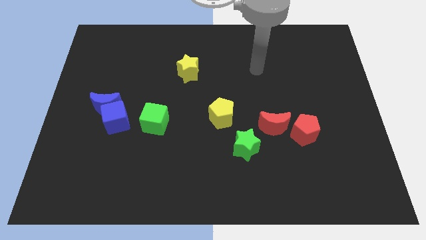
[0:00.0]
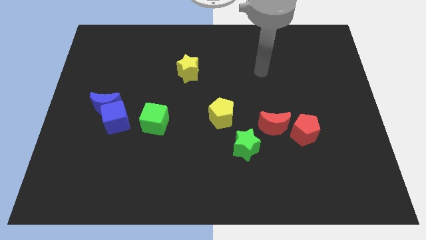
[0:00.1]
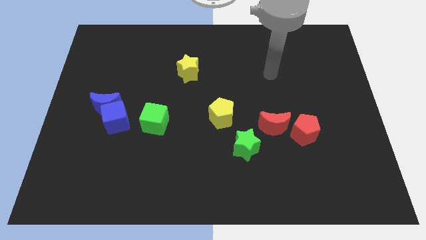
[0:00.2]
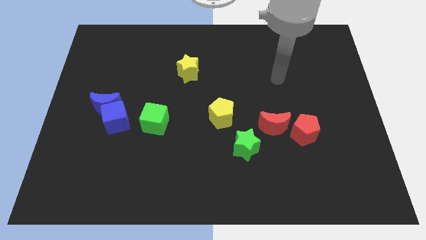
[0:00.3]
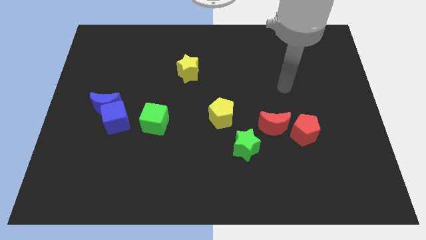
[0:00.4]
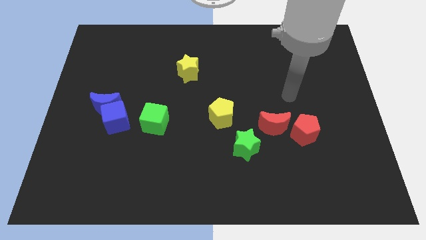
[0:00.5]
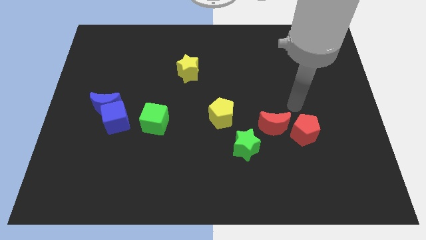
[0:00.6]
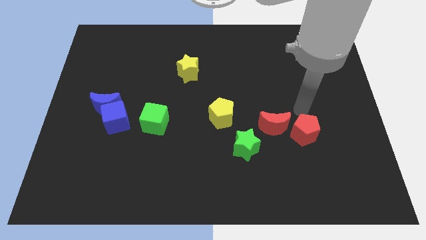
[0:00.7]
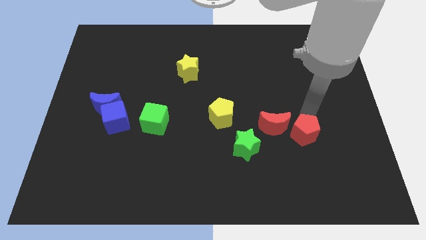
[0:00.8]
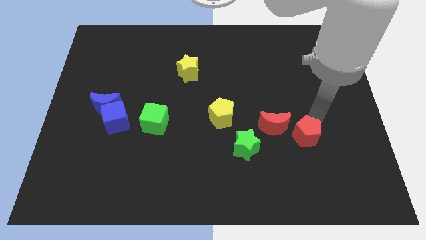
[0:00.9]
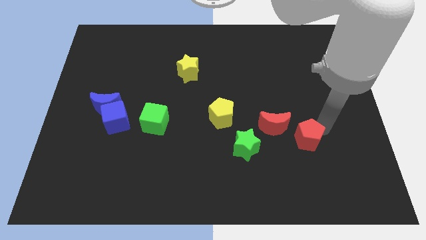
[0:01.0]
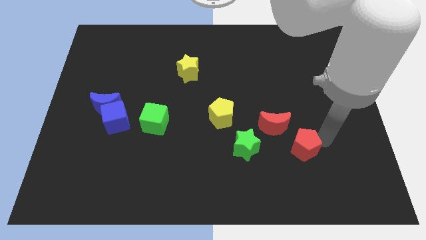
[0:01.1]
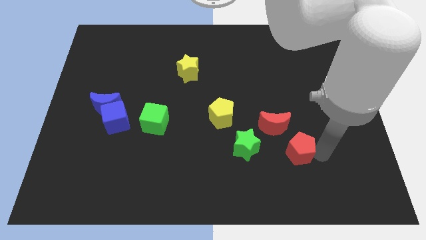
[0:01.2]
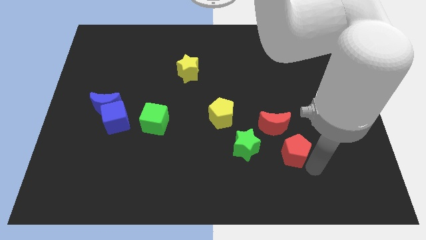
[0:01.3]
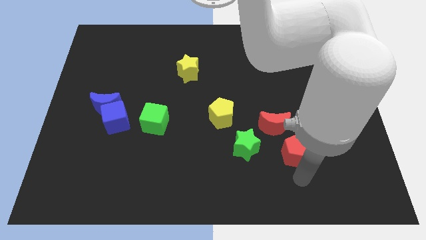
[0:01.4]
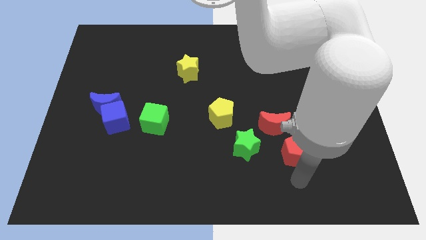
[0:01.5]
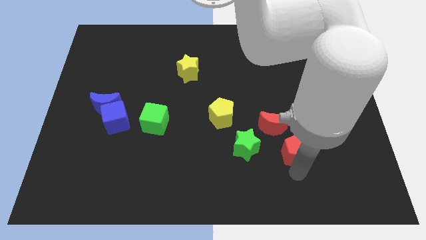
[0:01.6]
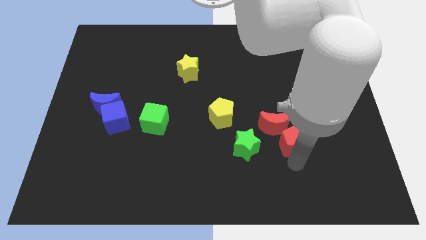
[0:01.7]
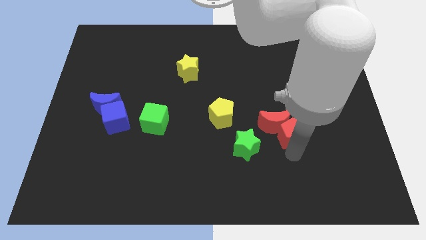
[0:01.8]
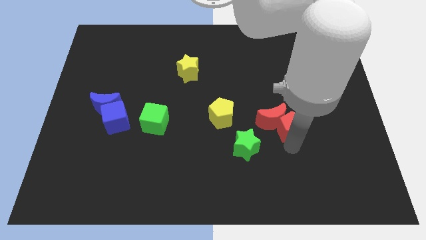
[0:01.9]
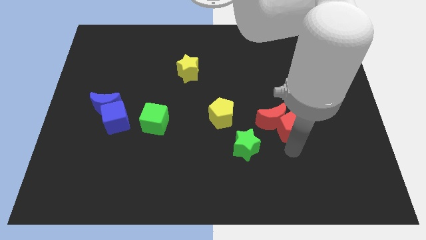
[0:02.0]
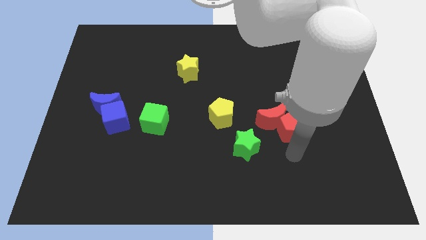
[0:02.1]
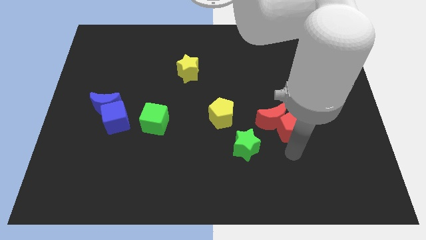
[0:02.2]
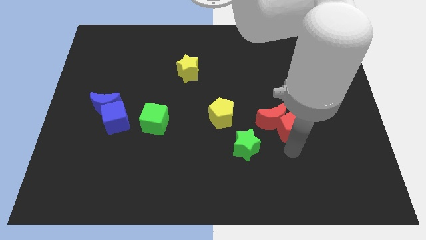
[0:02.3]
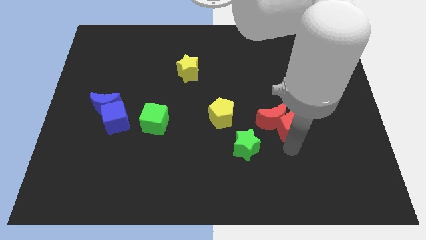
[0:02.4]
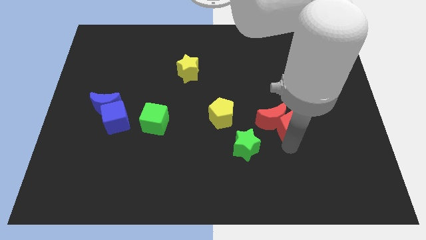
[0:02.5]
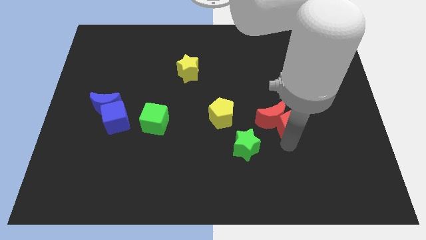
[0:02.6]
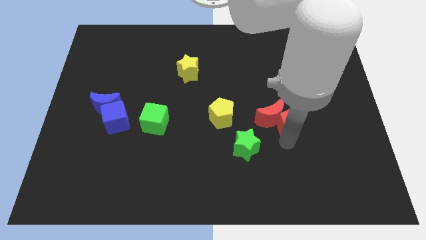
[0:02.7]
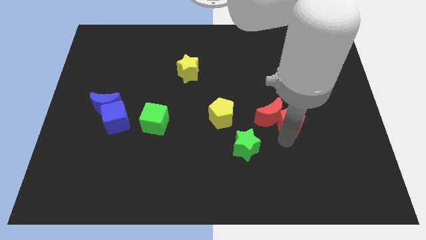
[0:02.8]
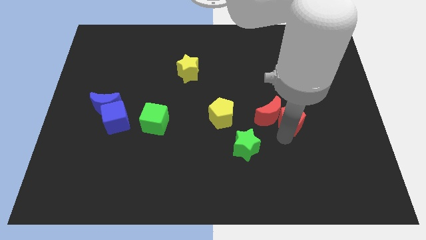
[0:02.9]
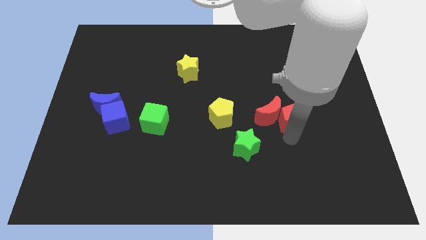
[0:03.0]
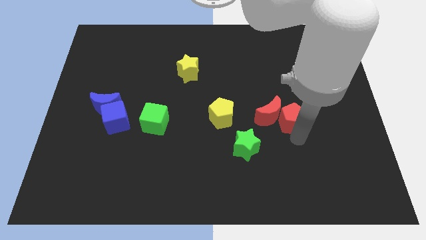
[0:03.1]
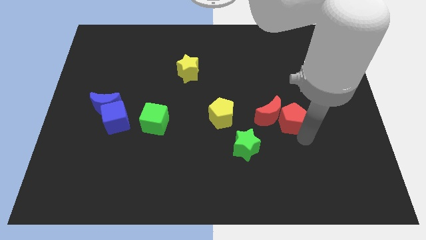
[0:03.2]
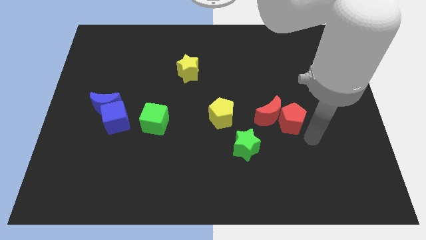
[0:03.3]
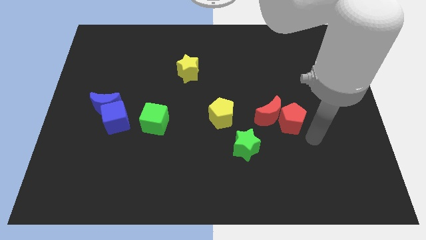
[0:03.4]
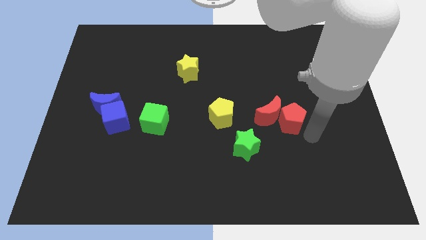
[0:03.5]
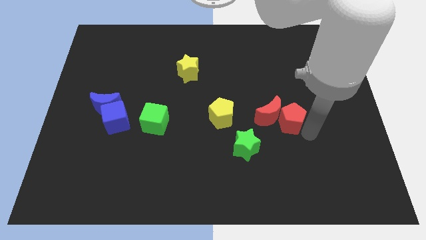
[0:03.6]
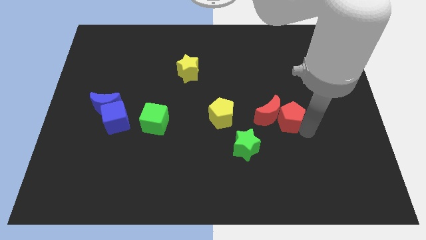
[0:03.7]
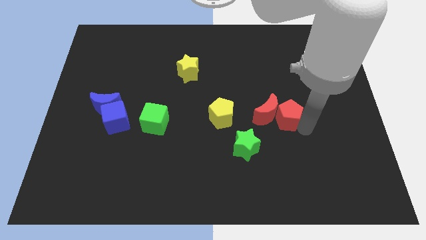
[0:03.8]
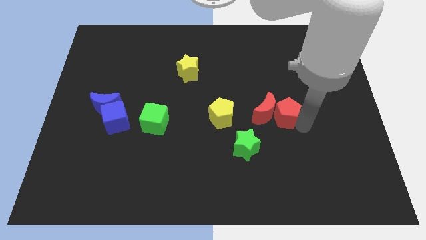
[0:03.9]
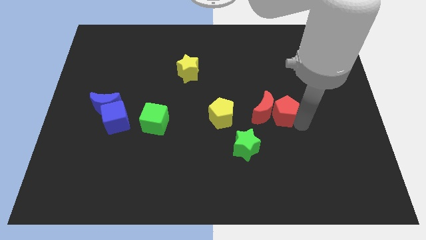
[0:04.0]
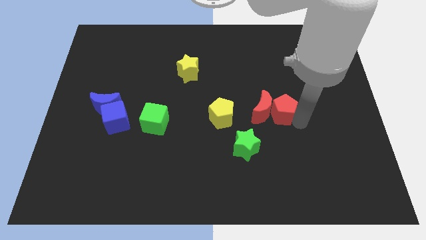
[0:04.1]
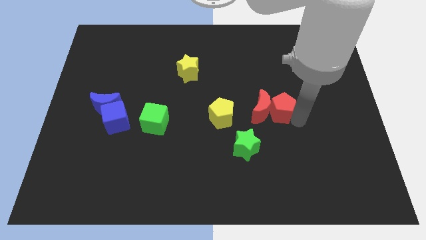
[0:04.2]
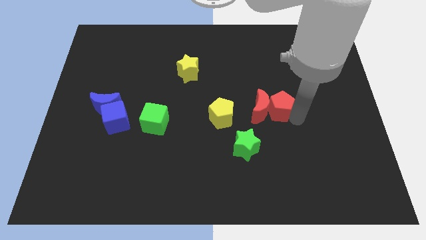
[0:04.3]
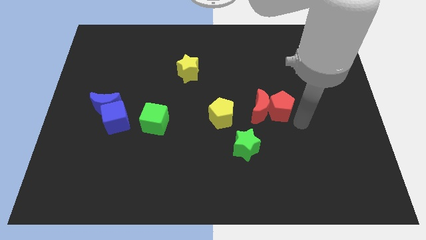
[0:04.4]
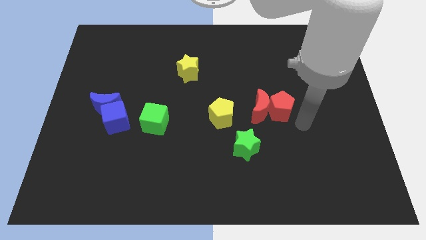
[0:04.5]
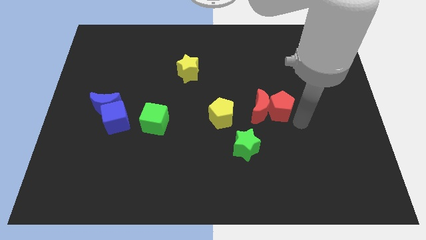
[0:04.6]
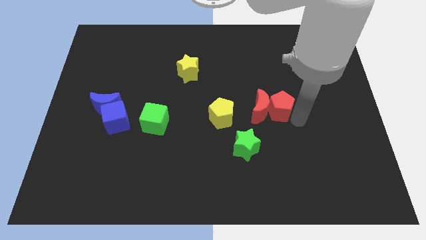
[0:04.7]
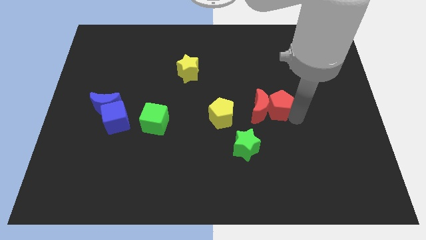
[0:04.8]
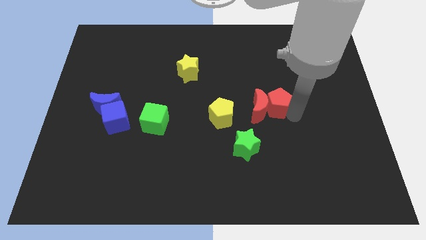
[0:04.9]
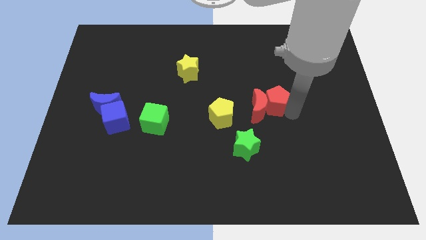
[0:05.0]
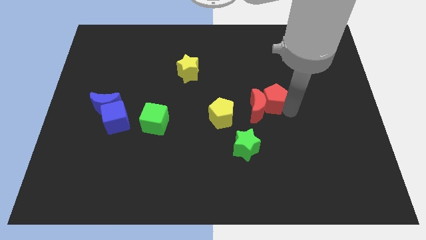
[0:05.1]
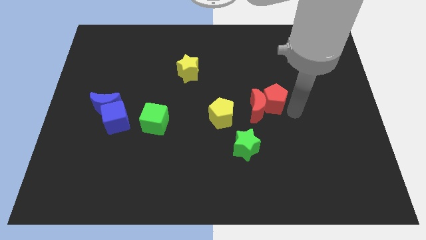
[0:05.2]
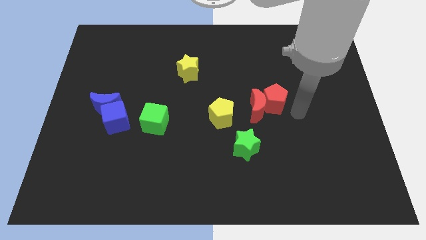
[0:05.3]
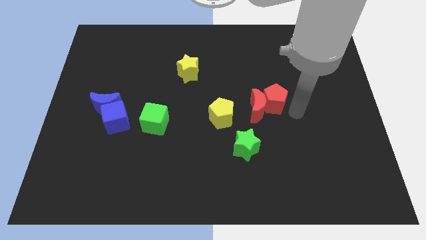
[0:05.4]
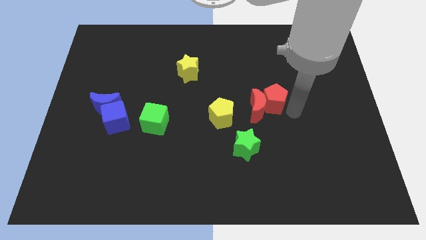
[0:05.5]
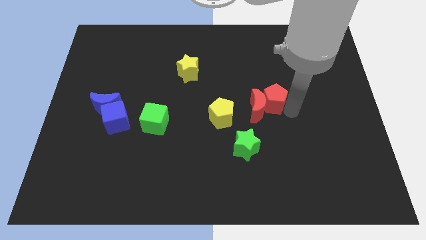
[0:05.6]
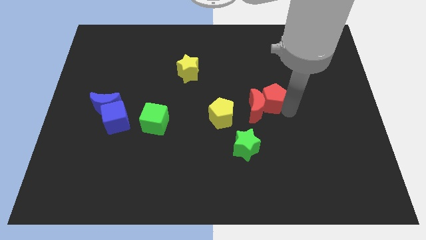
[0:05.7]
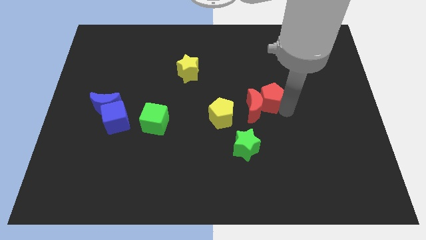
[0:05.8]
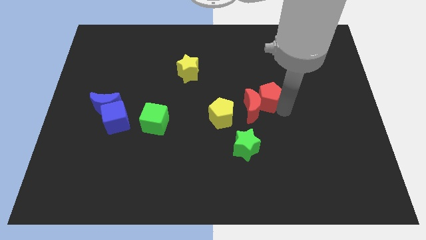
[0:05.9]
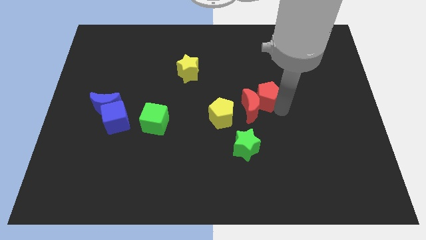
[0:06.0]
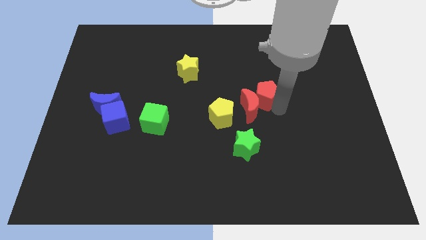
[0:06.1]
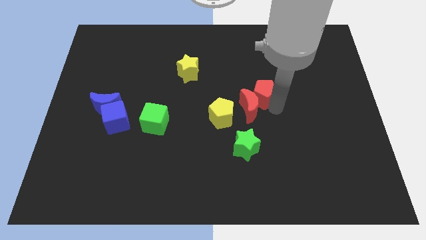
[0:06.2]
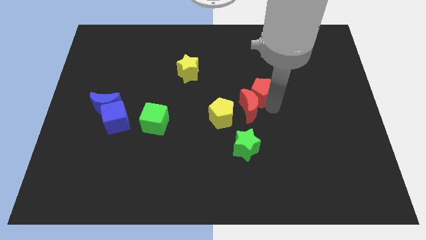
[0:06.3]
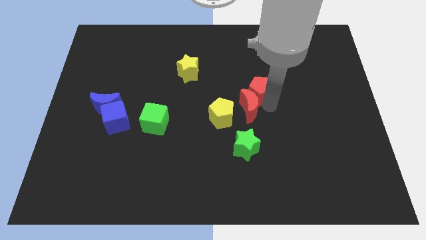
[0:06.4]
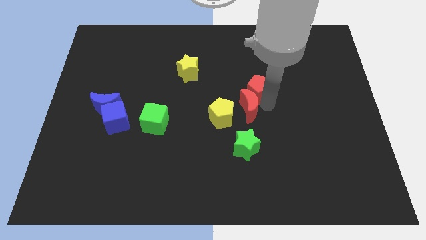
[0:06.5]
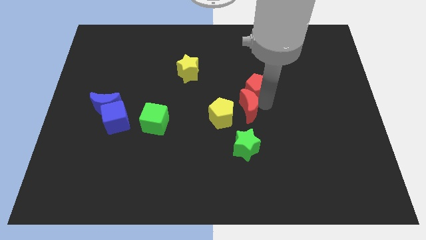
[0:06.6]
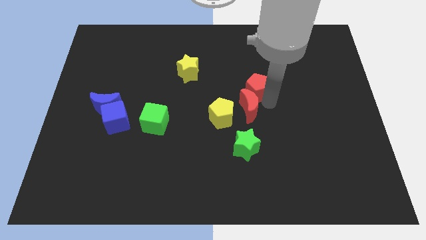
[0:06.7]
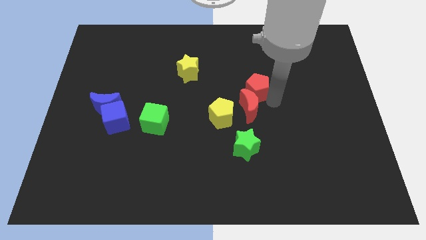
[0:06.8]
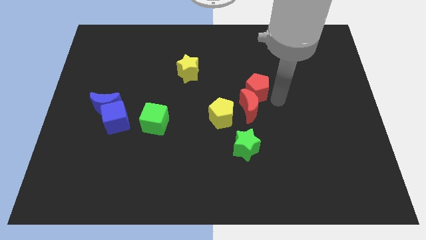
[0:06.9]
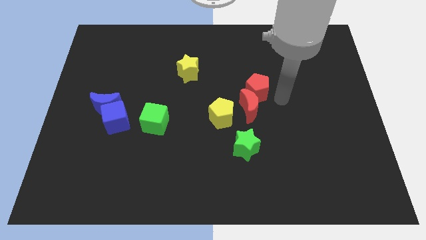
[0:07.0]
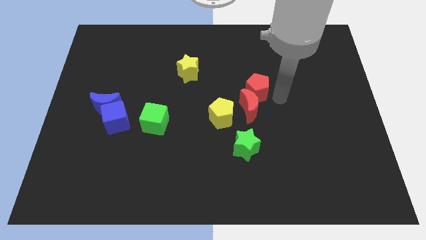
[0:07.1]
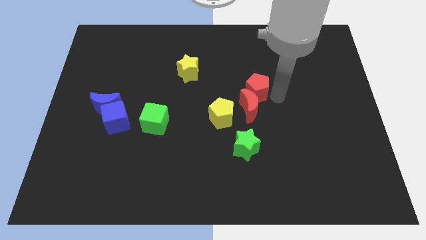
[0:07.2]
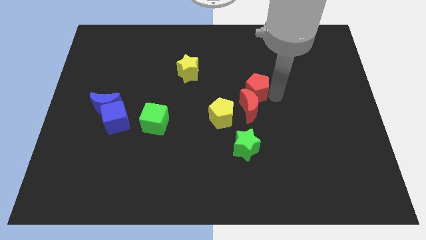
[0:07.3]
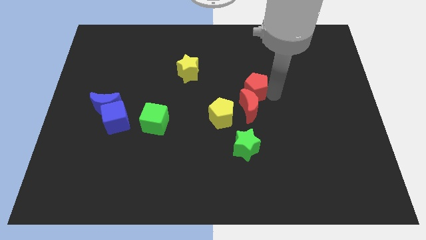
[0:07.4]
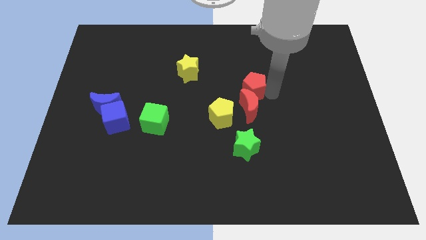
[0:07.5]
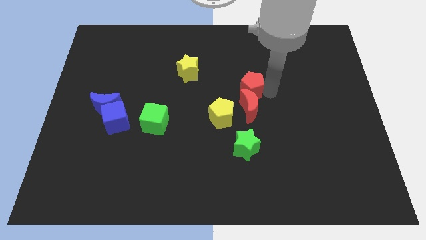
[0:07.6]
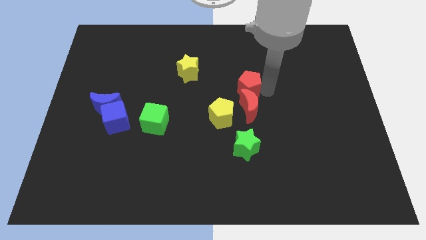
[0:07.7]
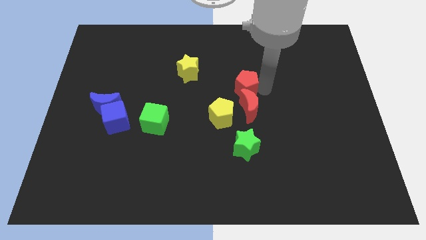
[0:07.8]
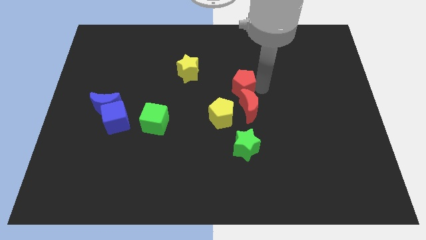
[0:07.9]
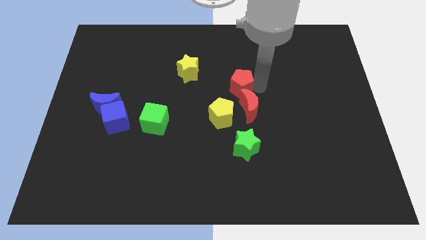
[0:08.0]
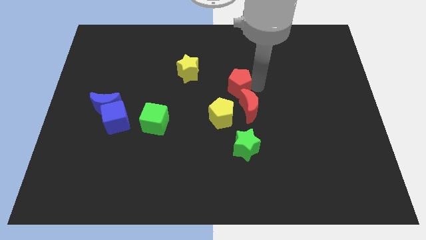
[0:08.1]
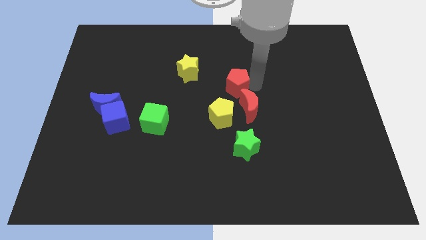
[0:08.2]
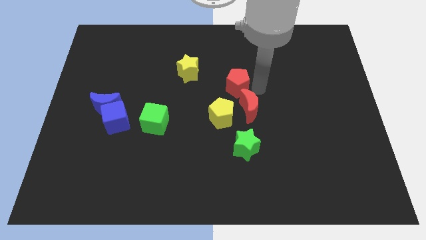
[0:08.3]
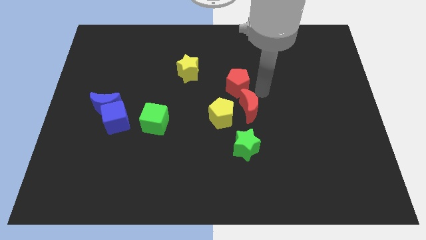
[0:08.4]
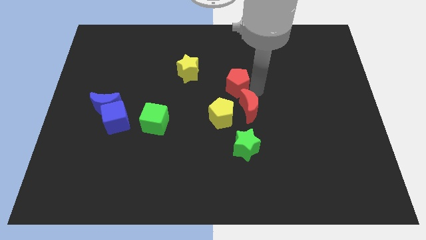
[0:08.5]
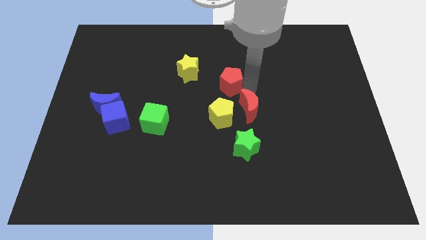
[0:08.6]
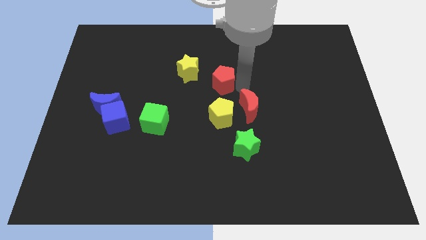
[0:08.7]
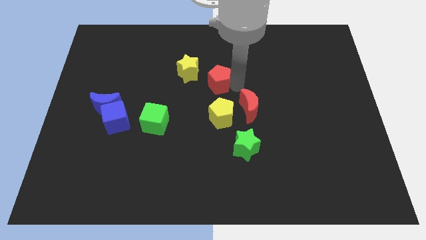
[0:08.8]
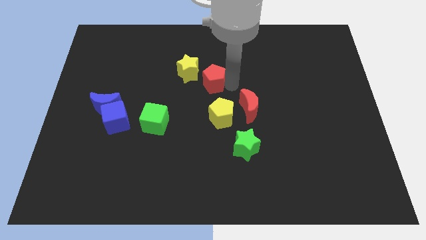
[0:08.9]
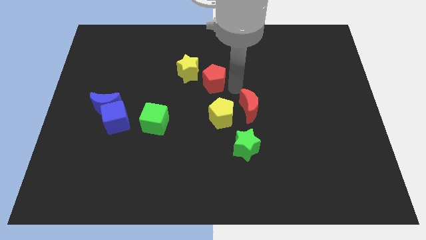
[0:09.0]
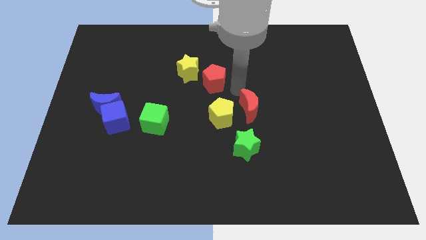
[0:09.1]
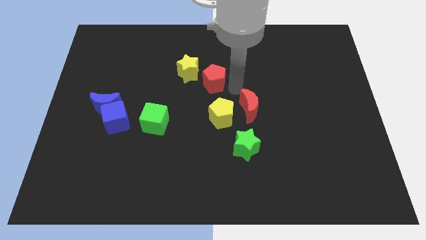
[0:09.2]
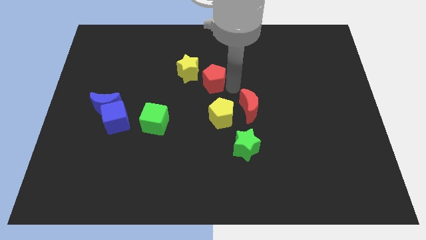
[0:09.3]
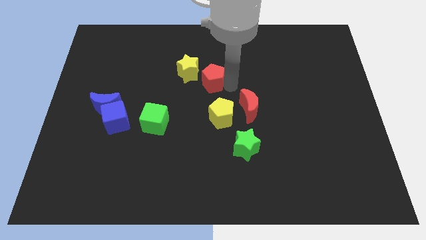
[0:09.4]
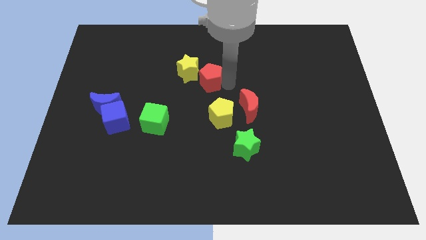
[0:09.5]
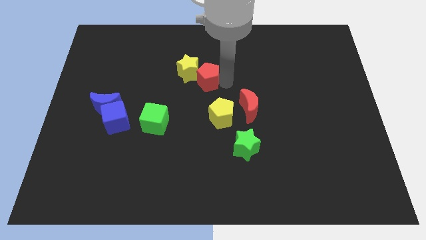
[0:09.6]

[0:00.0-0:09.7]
push the red pentagon to the yellow star
